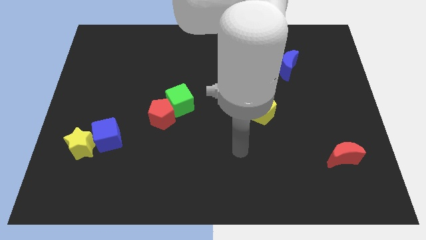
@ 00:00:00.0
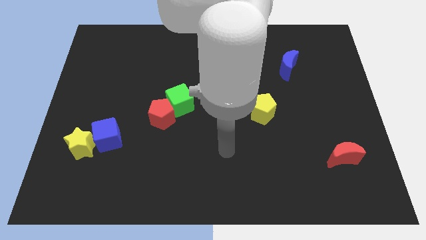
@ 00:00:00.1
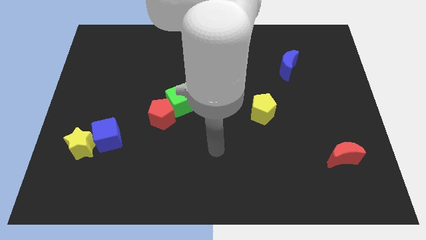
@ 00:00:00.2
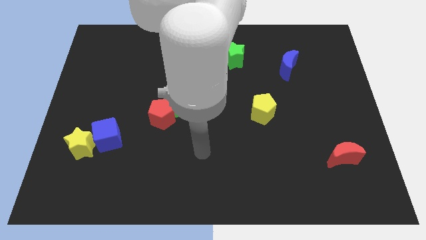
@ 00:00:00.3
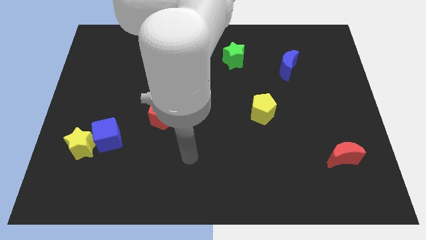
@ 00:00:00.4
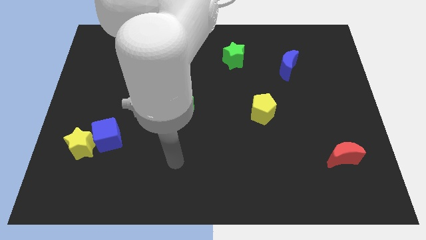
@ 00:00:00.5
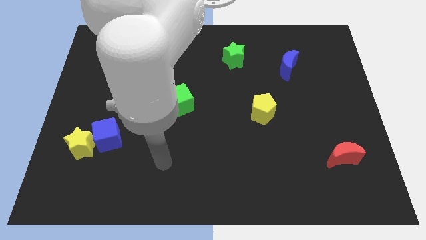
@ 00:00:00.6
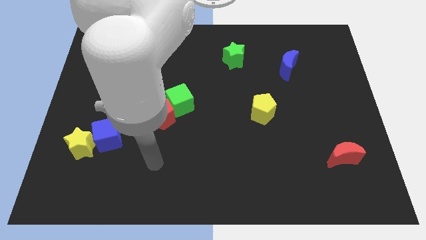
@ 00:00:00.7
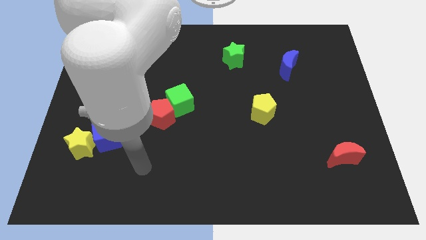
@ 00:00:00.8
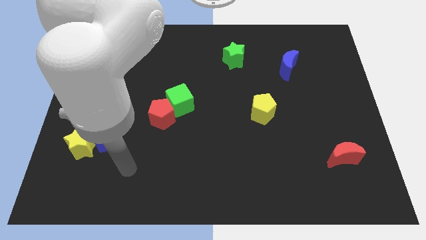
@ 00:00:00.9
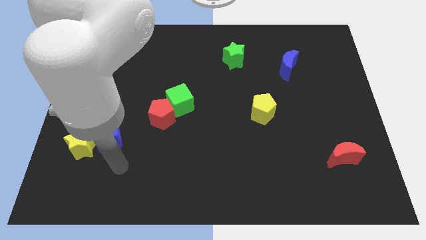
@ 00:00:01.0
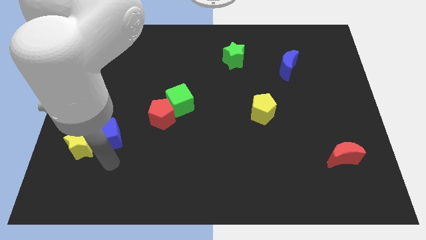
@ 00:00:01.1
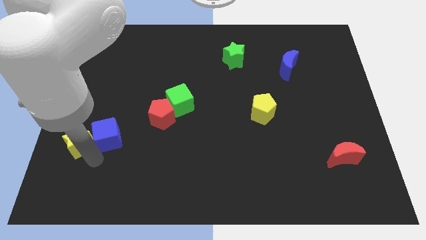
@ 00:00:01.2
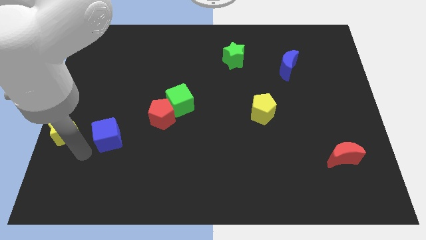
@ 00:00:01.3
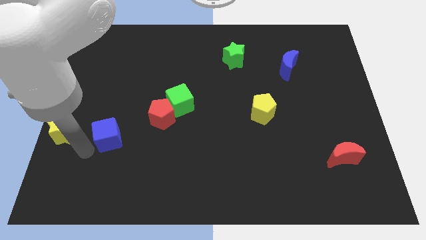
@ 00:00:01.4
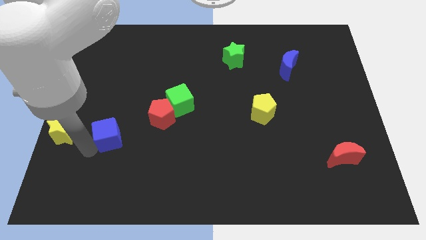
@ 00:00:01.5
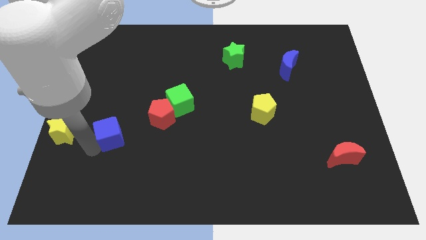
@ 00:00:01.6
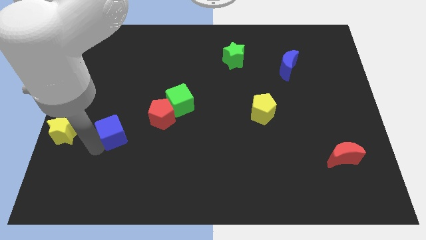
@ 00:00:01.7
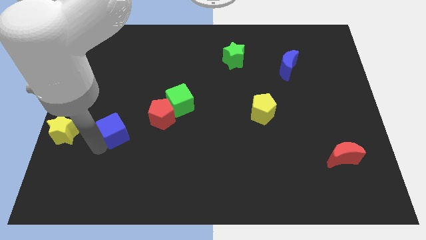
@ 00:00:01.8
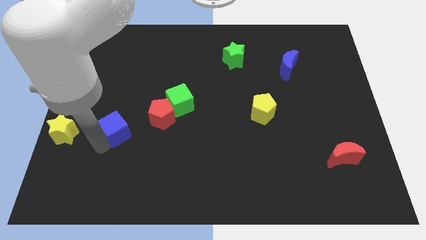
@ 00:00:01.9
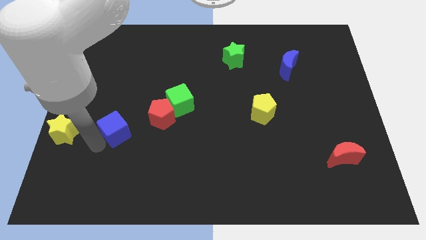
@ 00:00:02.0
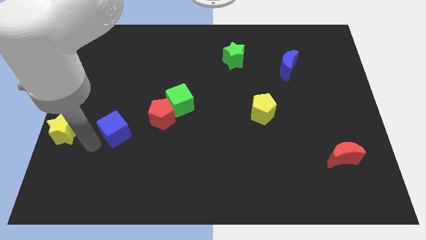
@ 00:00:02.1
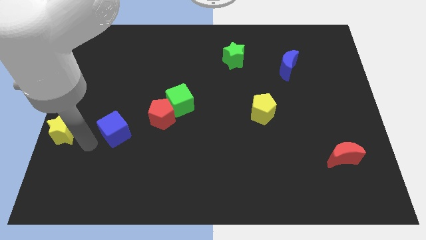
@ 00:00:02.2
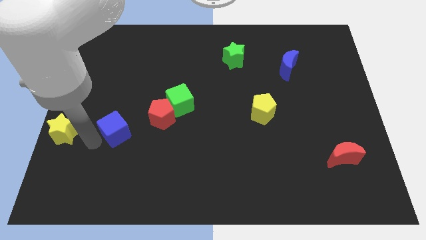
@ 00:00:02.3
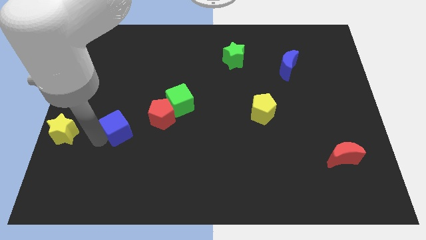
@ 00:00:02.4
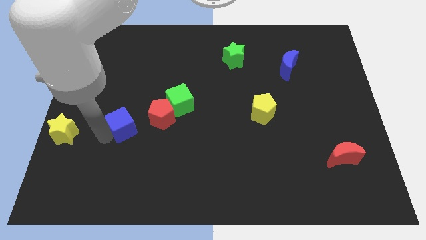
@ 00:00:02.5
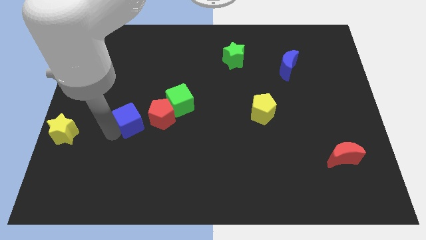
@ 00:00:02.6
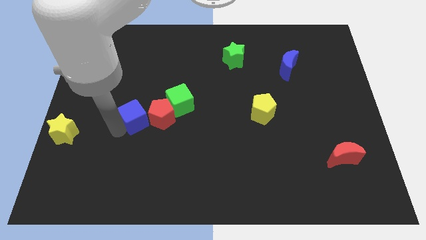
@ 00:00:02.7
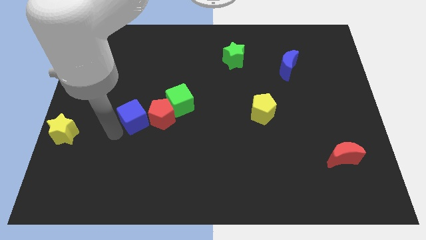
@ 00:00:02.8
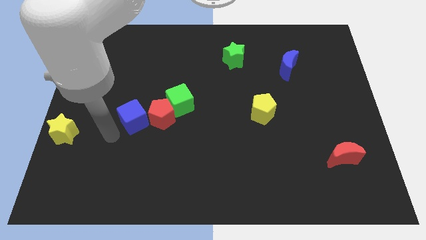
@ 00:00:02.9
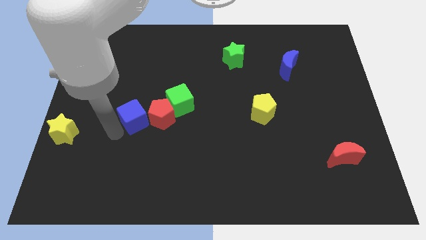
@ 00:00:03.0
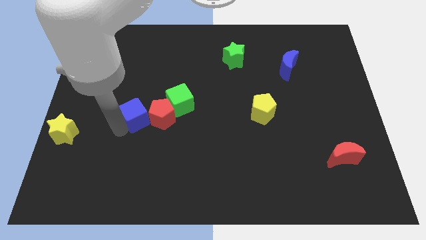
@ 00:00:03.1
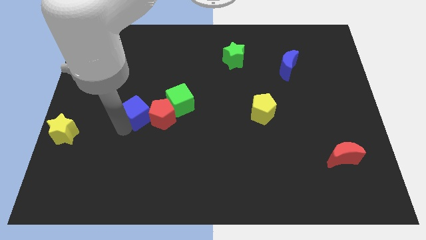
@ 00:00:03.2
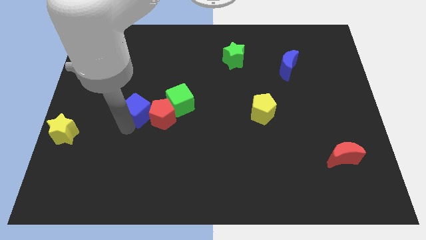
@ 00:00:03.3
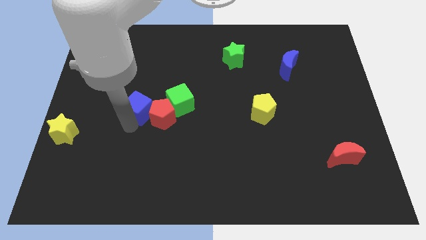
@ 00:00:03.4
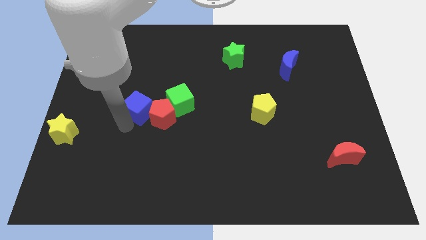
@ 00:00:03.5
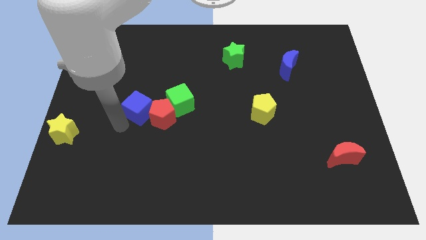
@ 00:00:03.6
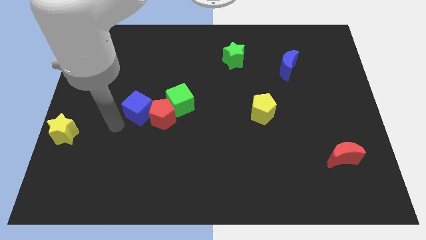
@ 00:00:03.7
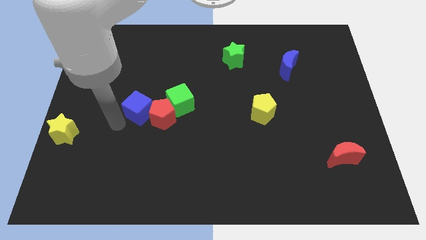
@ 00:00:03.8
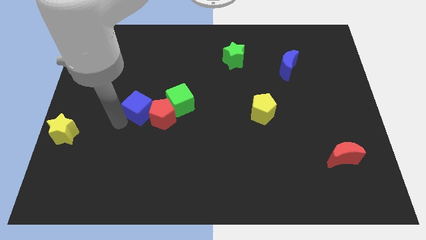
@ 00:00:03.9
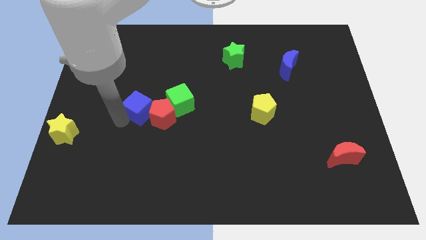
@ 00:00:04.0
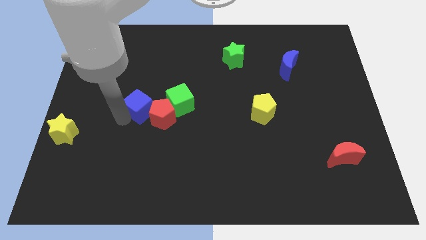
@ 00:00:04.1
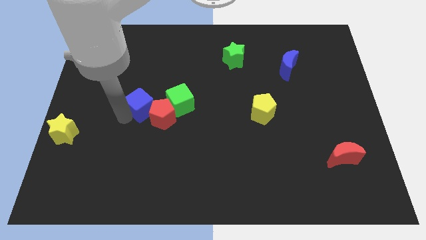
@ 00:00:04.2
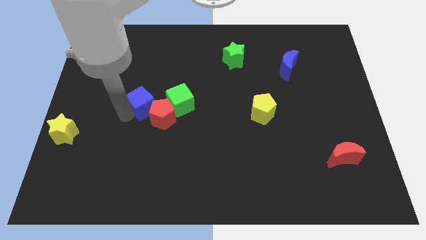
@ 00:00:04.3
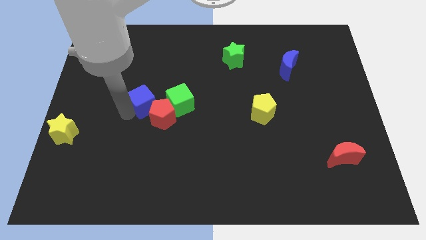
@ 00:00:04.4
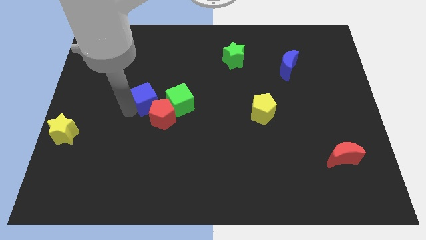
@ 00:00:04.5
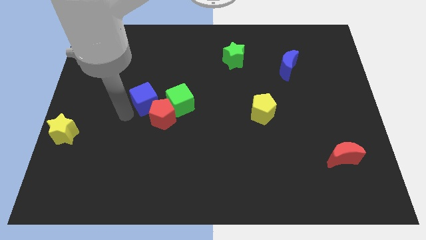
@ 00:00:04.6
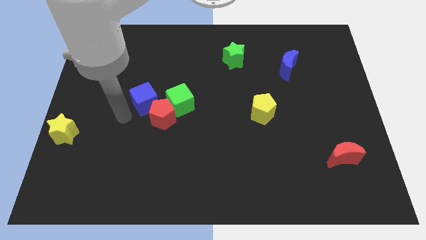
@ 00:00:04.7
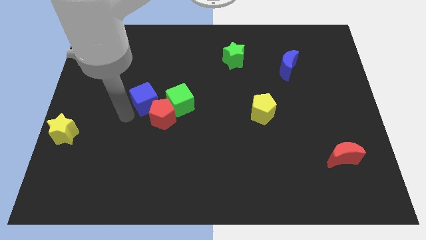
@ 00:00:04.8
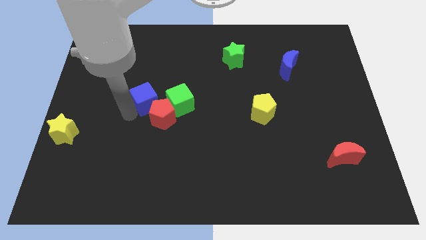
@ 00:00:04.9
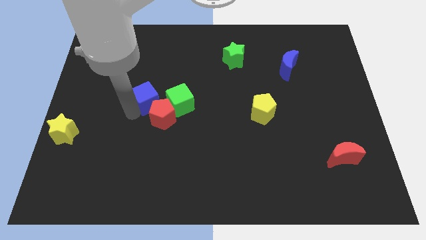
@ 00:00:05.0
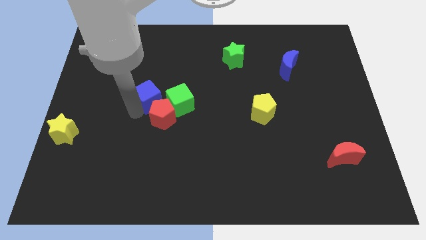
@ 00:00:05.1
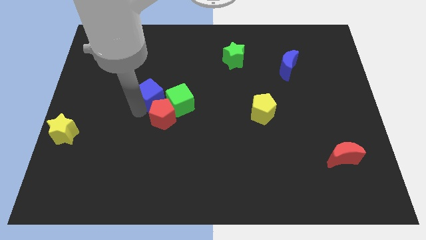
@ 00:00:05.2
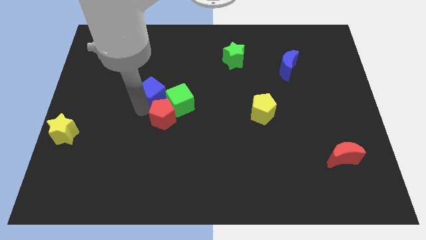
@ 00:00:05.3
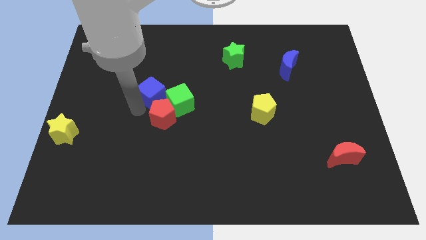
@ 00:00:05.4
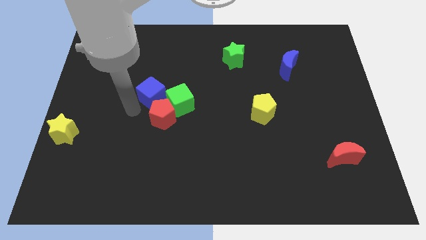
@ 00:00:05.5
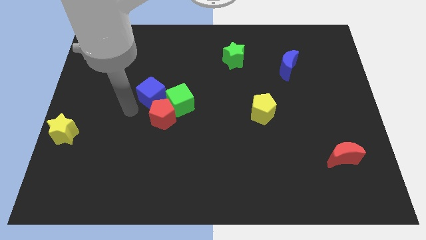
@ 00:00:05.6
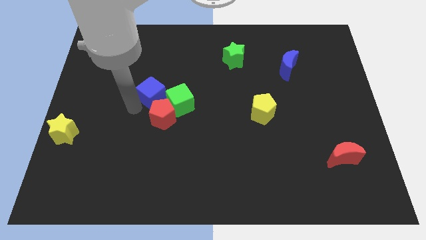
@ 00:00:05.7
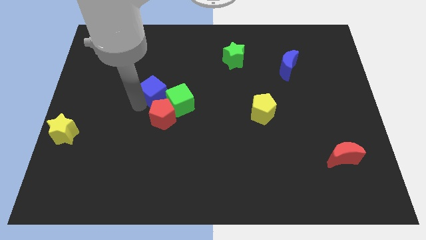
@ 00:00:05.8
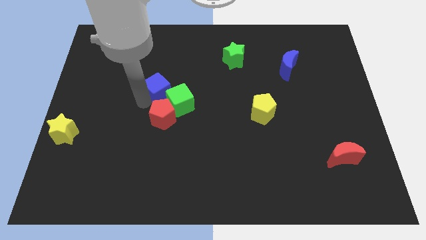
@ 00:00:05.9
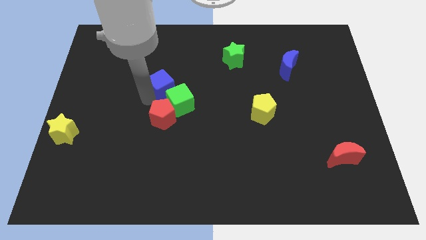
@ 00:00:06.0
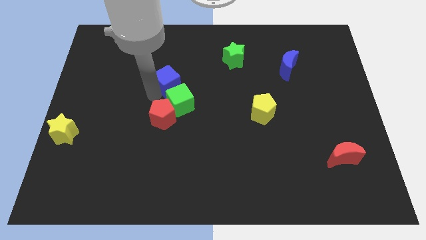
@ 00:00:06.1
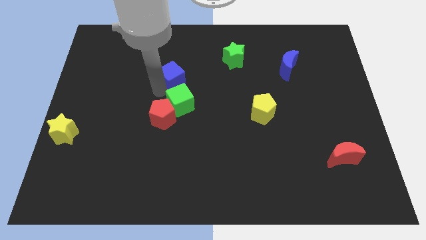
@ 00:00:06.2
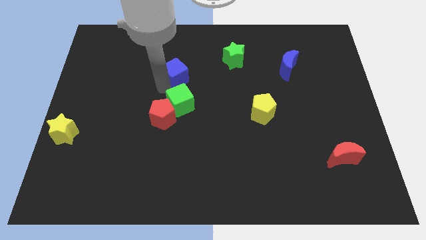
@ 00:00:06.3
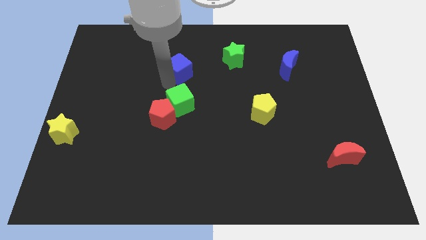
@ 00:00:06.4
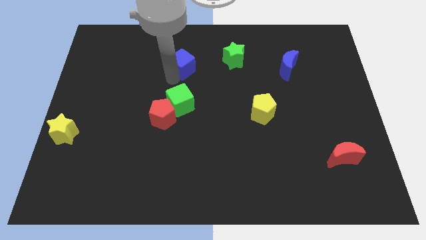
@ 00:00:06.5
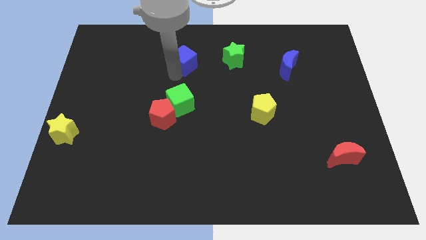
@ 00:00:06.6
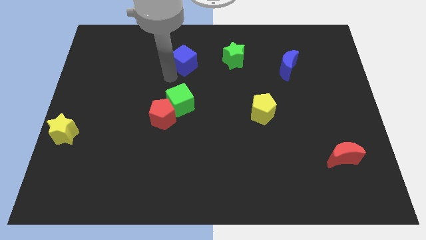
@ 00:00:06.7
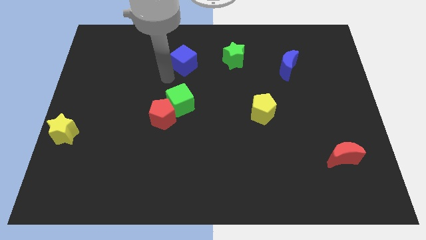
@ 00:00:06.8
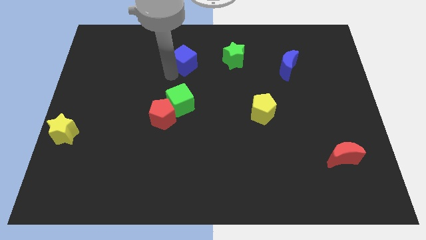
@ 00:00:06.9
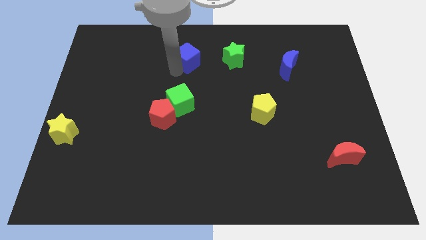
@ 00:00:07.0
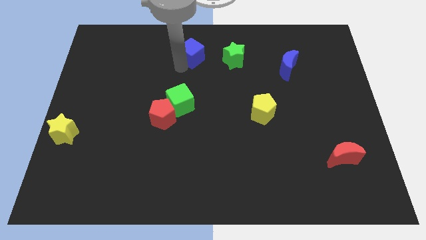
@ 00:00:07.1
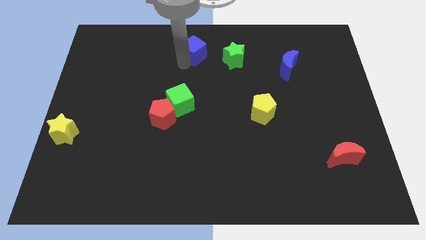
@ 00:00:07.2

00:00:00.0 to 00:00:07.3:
put the blue cube to the top side
